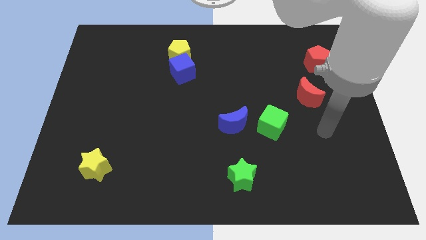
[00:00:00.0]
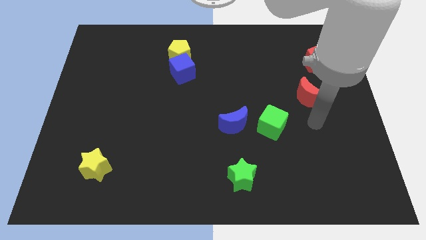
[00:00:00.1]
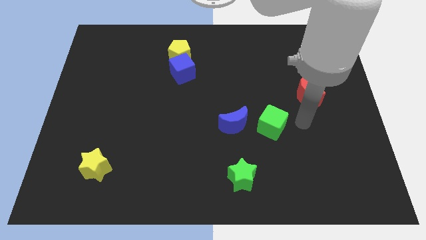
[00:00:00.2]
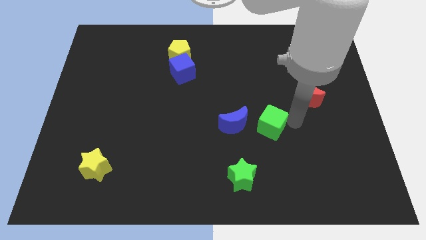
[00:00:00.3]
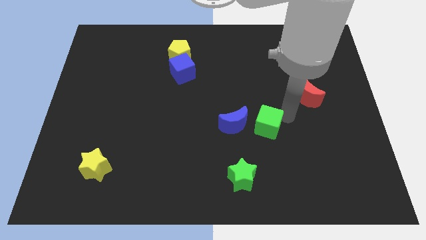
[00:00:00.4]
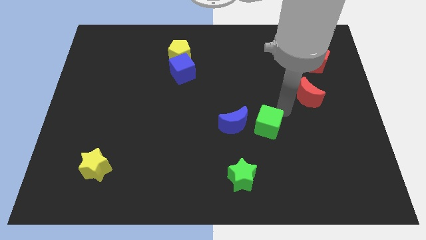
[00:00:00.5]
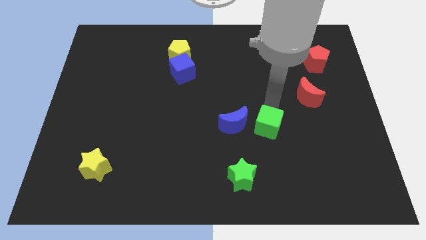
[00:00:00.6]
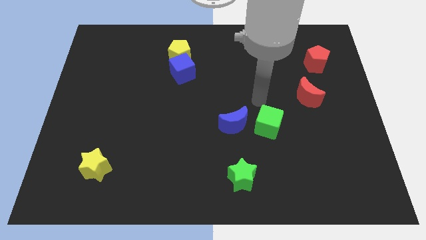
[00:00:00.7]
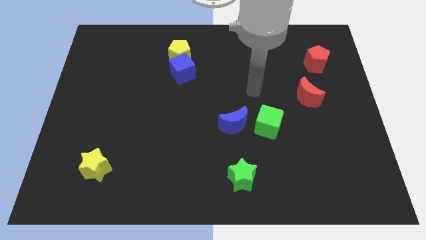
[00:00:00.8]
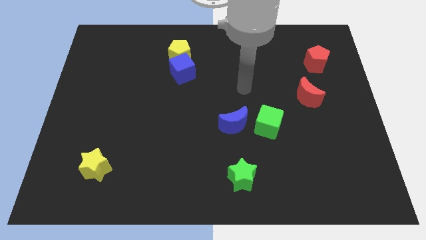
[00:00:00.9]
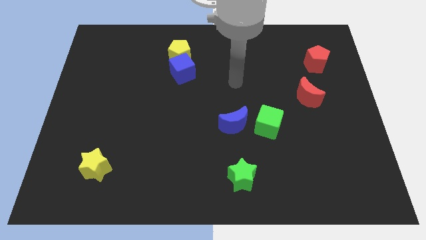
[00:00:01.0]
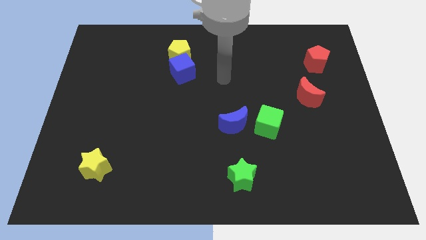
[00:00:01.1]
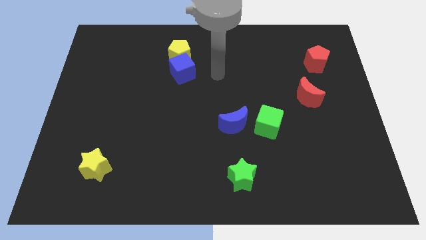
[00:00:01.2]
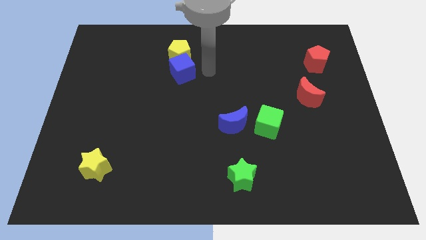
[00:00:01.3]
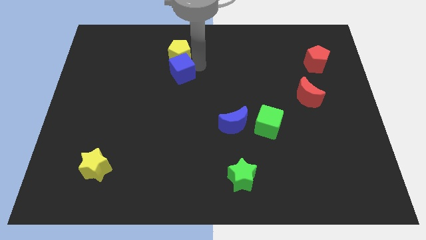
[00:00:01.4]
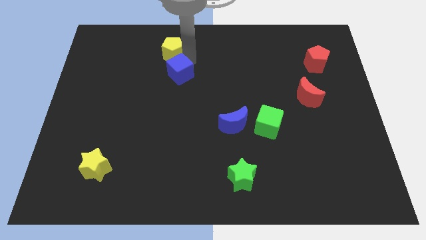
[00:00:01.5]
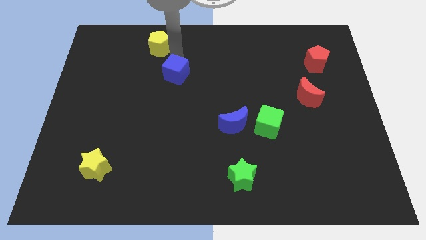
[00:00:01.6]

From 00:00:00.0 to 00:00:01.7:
pull the blue cube apart from the yellow pentagon

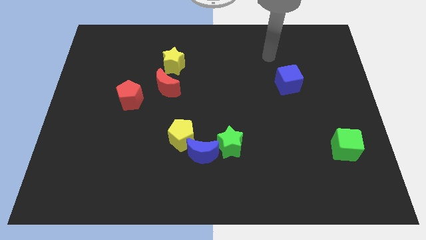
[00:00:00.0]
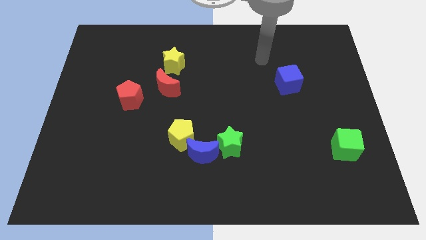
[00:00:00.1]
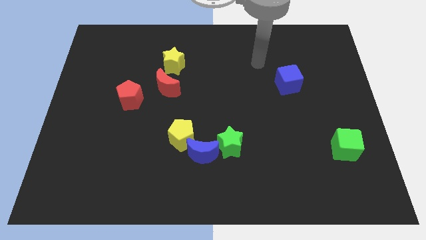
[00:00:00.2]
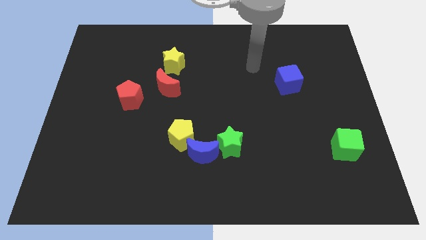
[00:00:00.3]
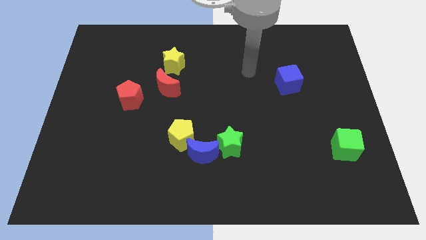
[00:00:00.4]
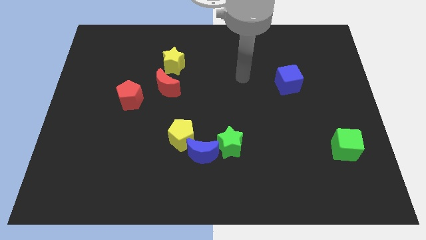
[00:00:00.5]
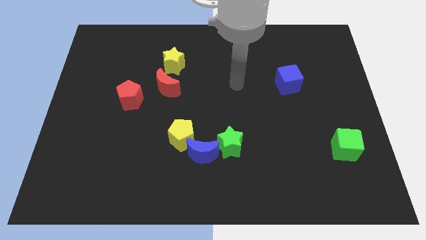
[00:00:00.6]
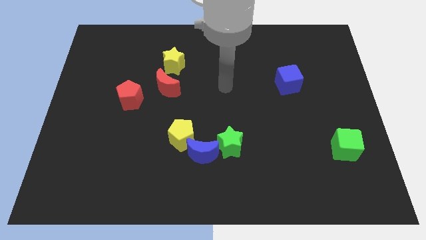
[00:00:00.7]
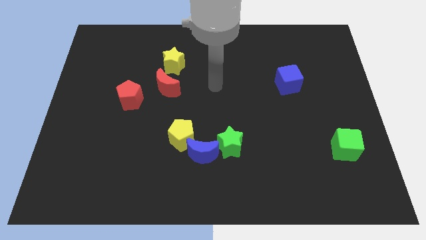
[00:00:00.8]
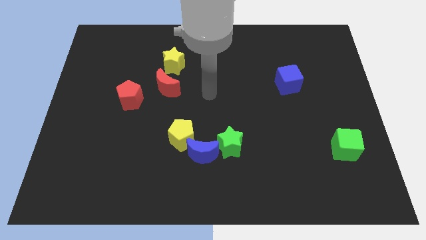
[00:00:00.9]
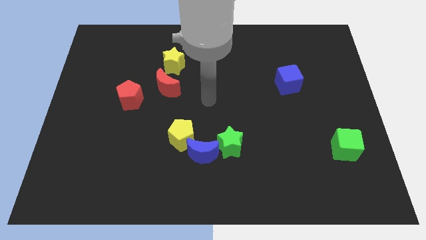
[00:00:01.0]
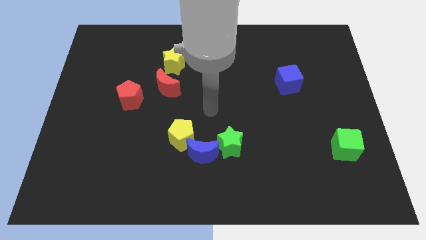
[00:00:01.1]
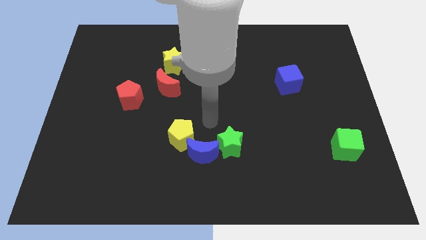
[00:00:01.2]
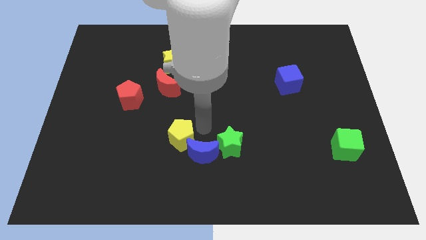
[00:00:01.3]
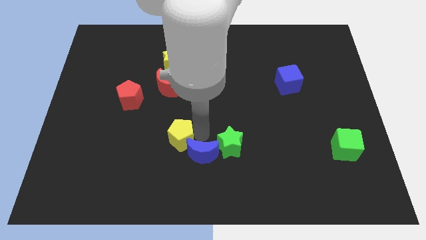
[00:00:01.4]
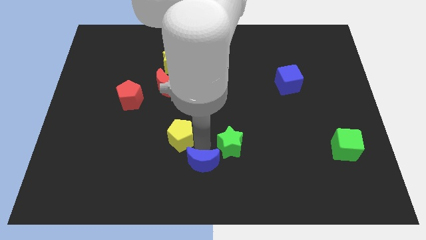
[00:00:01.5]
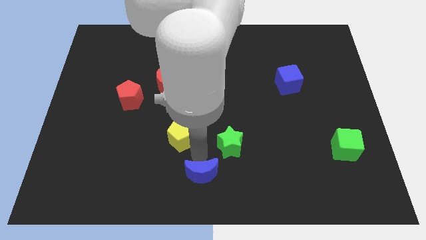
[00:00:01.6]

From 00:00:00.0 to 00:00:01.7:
separate the yellow pentagon from the blue moon

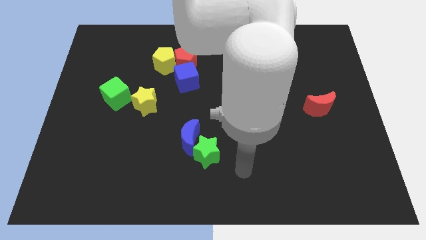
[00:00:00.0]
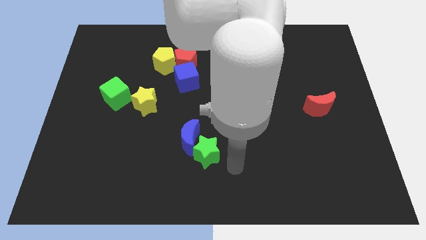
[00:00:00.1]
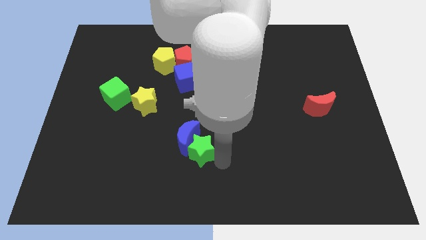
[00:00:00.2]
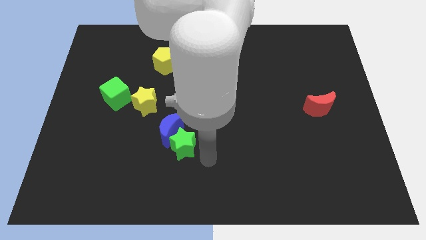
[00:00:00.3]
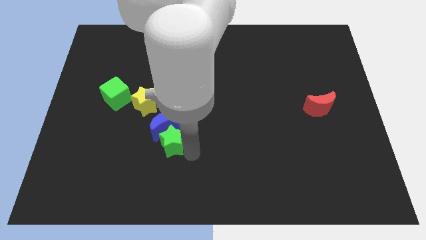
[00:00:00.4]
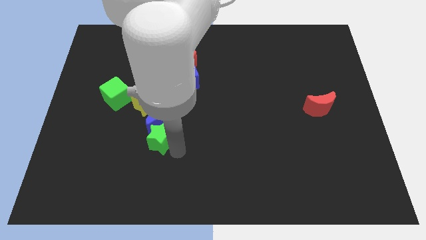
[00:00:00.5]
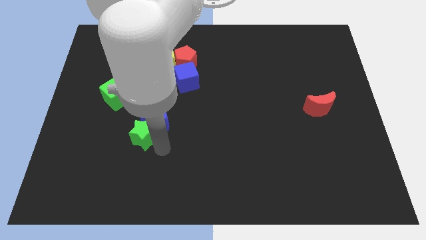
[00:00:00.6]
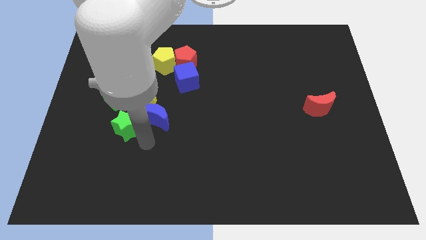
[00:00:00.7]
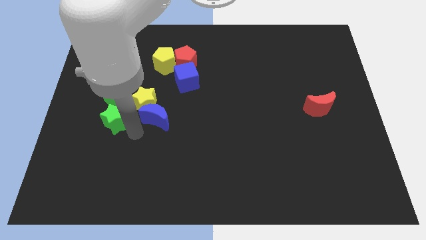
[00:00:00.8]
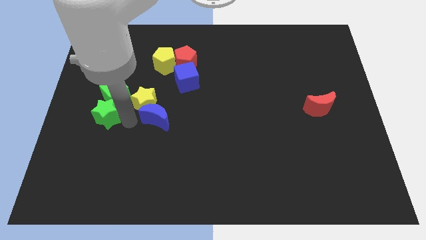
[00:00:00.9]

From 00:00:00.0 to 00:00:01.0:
pull the blue moon apart from the green star

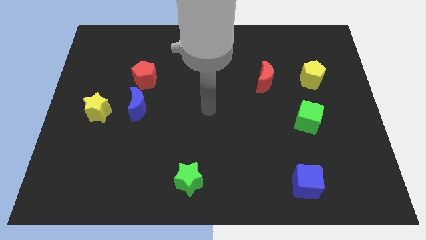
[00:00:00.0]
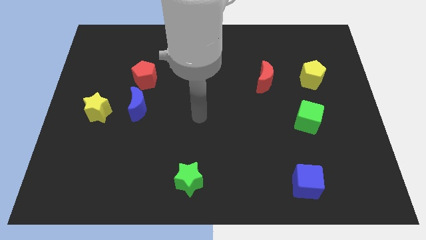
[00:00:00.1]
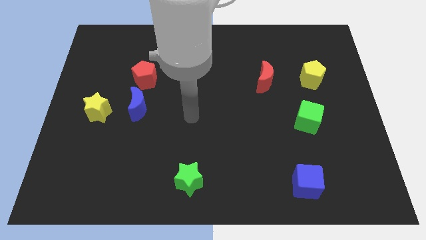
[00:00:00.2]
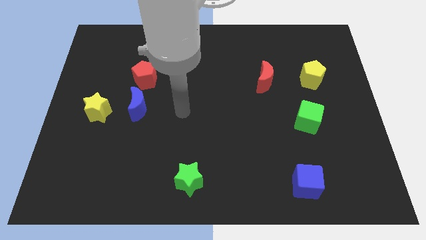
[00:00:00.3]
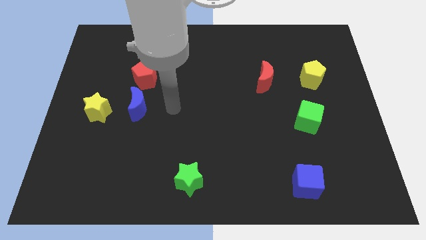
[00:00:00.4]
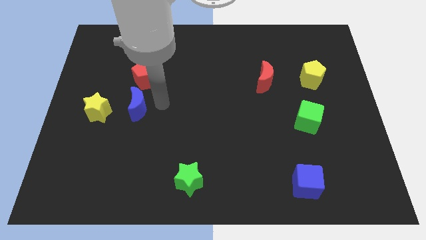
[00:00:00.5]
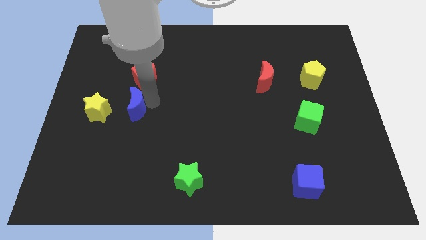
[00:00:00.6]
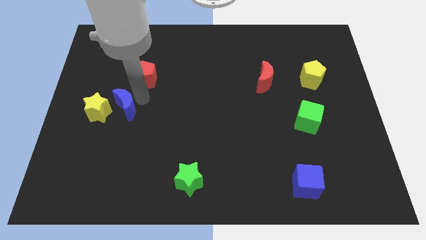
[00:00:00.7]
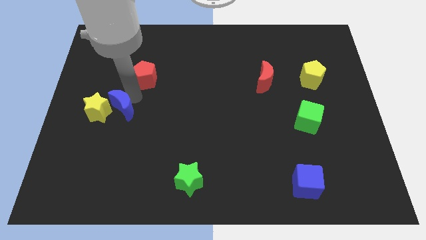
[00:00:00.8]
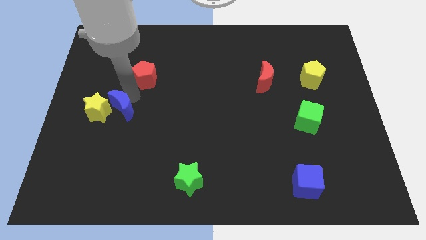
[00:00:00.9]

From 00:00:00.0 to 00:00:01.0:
separate the red pentagon from the blue moon

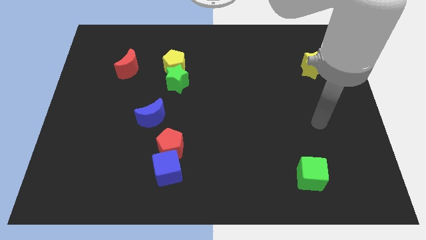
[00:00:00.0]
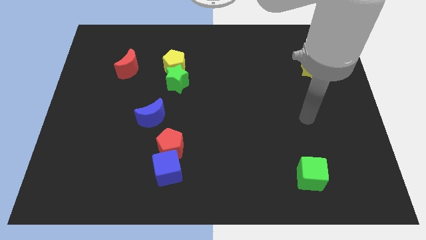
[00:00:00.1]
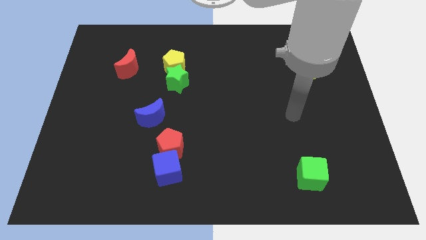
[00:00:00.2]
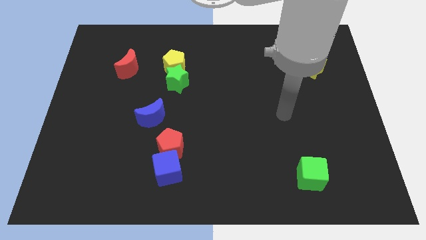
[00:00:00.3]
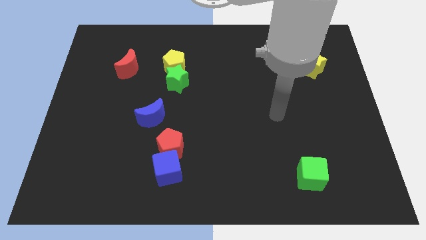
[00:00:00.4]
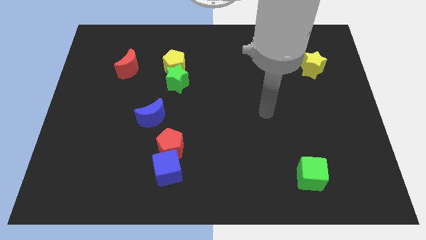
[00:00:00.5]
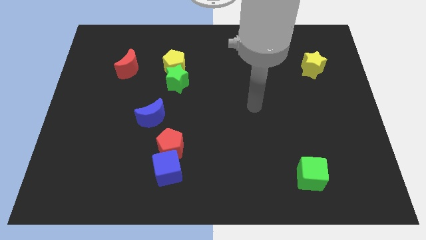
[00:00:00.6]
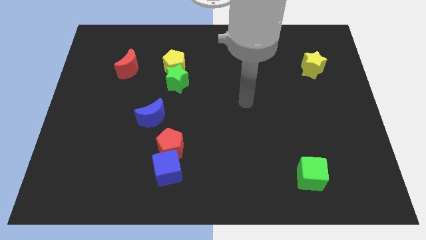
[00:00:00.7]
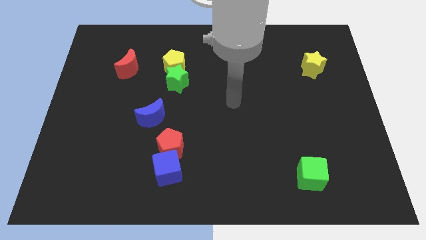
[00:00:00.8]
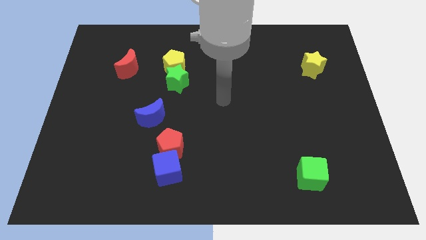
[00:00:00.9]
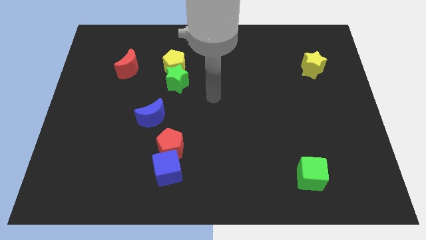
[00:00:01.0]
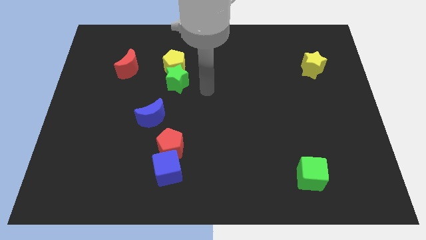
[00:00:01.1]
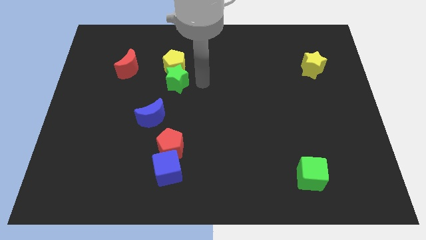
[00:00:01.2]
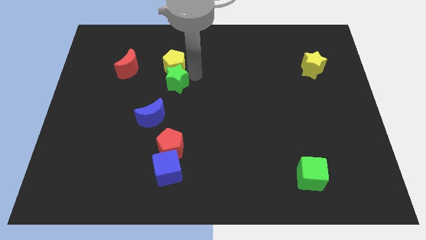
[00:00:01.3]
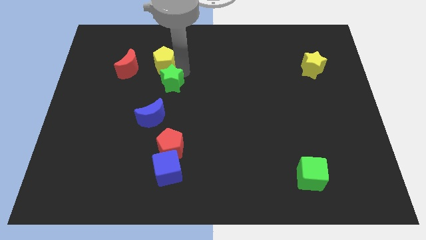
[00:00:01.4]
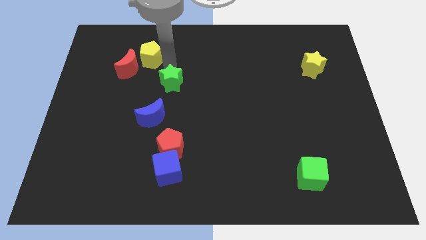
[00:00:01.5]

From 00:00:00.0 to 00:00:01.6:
separate the green star from the yellow pentagon

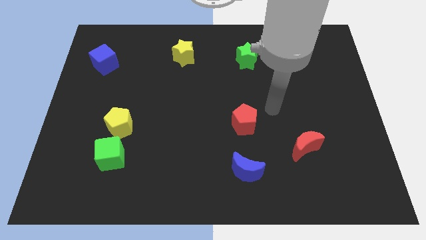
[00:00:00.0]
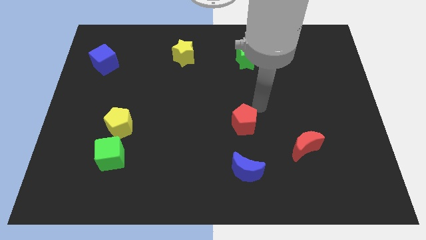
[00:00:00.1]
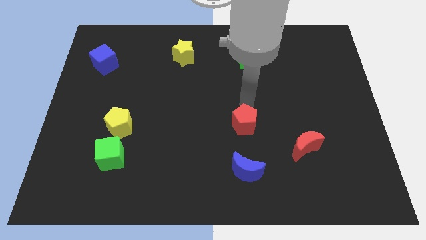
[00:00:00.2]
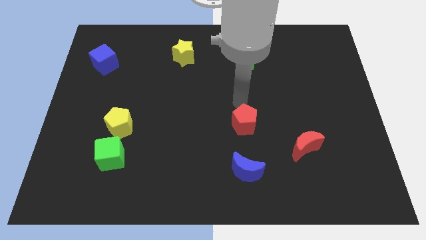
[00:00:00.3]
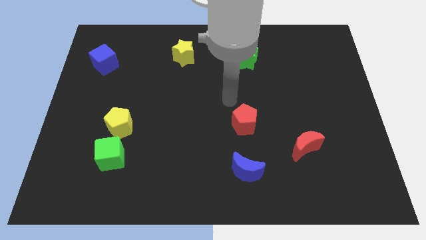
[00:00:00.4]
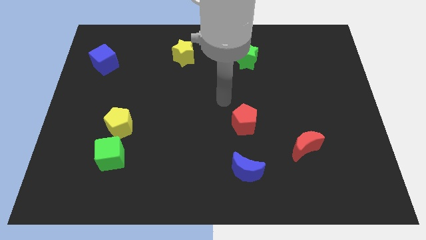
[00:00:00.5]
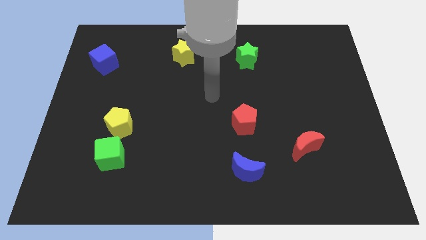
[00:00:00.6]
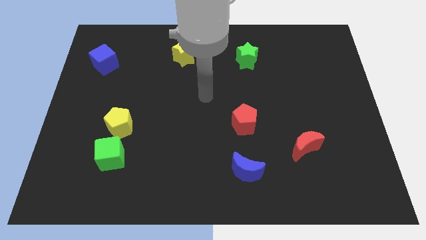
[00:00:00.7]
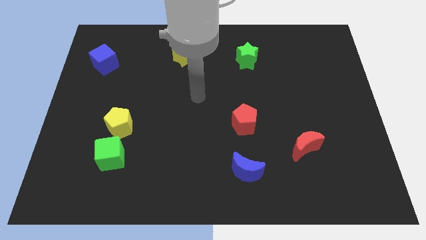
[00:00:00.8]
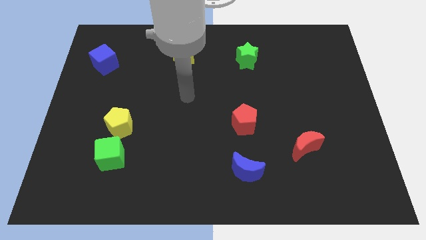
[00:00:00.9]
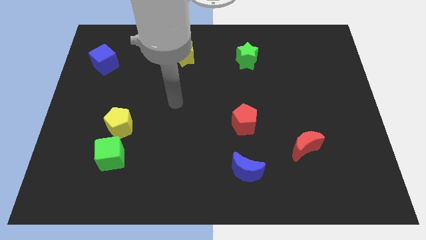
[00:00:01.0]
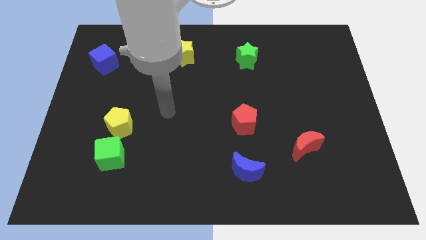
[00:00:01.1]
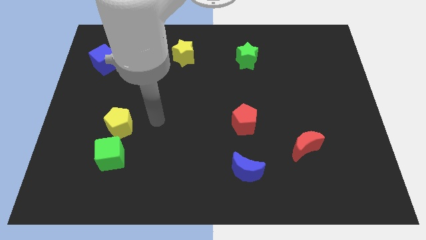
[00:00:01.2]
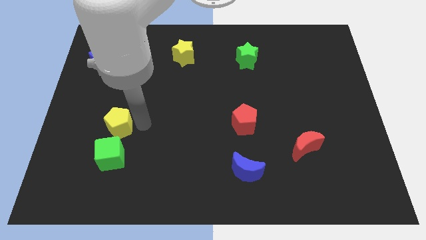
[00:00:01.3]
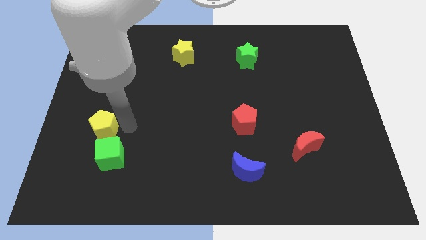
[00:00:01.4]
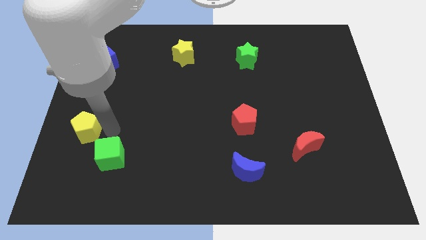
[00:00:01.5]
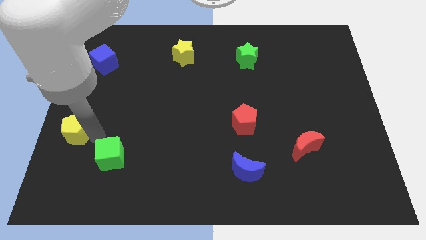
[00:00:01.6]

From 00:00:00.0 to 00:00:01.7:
pull the green cube apart from the yellow pentagon

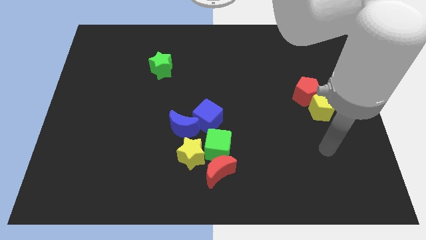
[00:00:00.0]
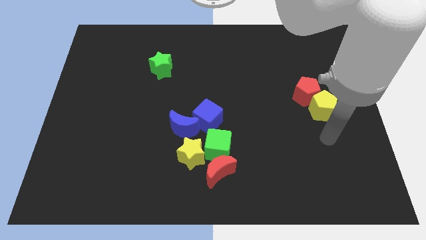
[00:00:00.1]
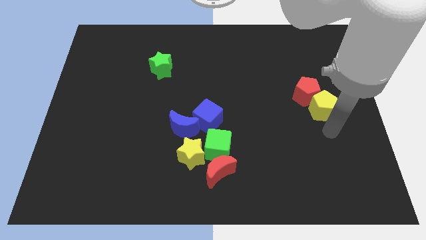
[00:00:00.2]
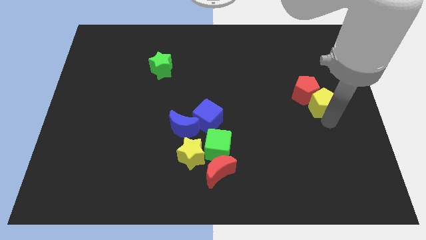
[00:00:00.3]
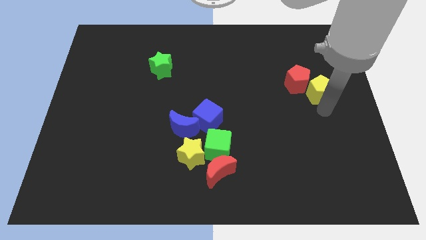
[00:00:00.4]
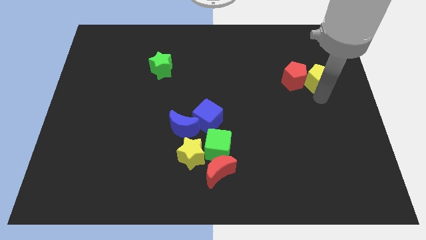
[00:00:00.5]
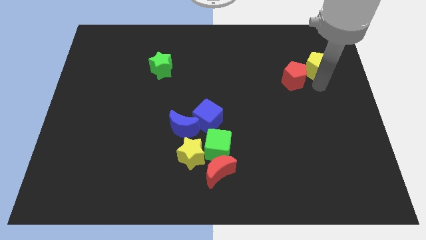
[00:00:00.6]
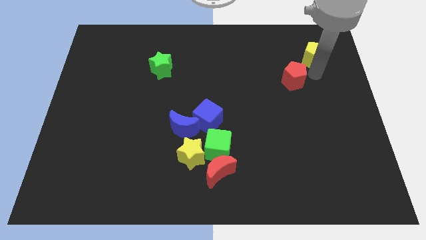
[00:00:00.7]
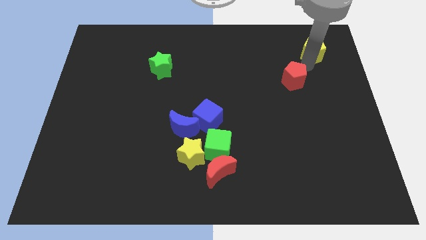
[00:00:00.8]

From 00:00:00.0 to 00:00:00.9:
move the red pentagon away from the yellow pentagon
